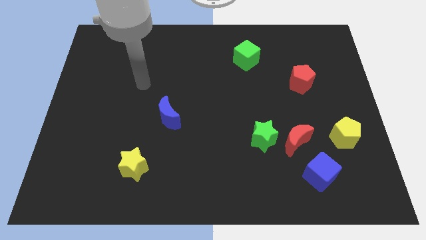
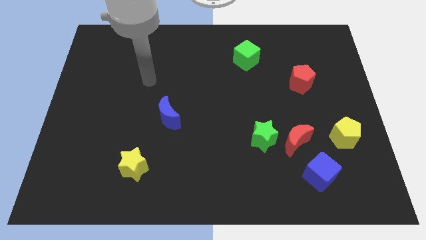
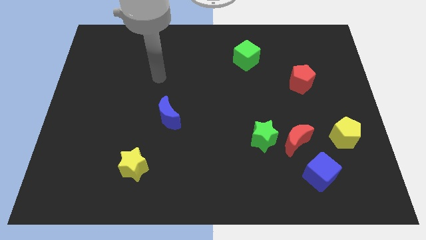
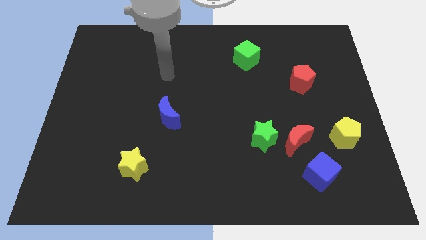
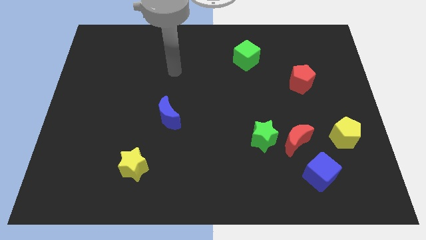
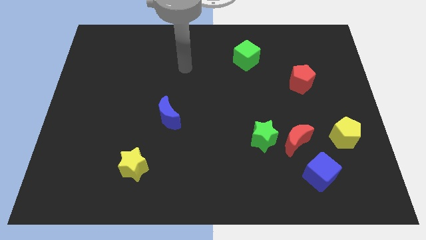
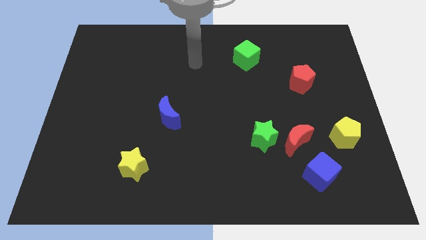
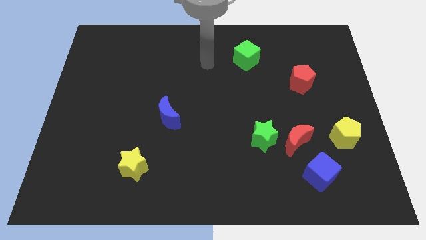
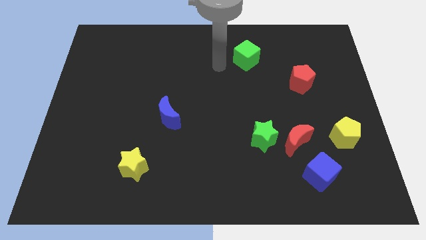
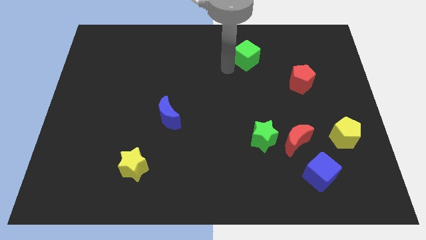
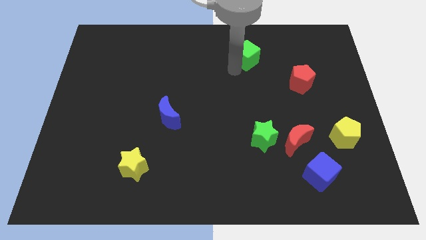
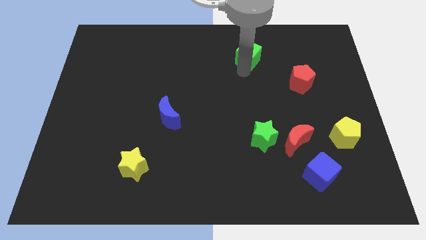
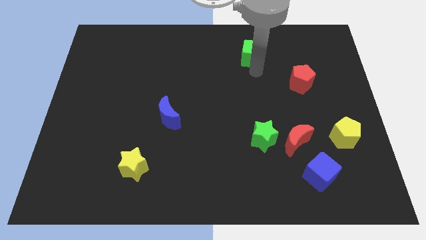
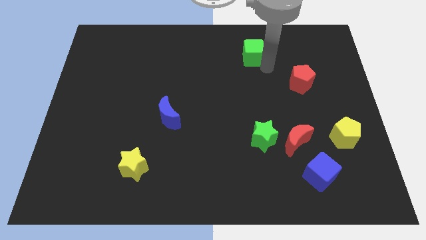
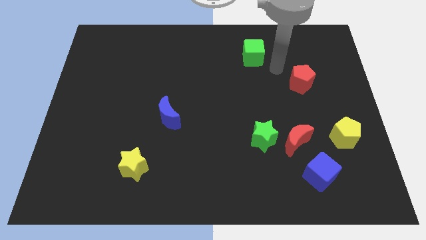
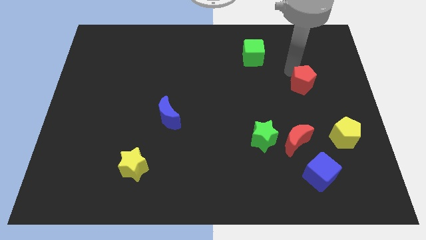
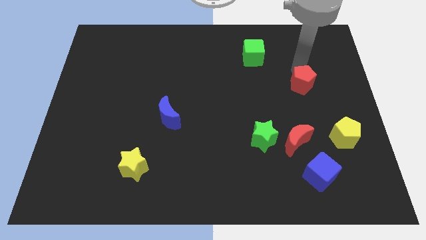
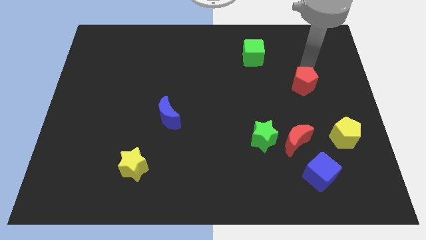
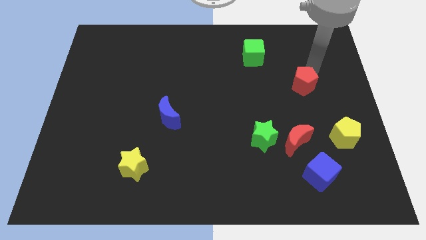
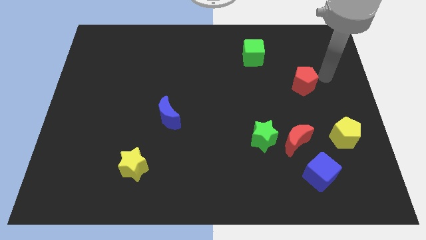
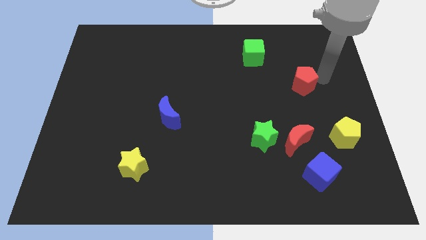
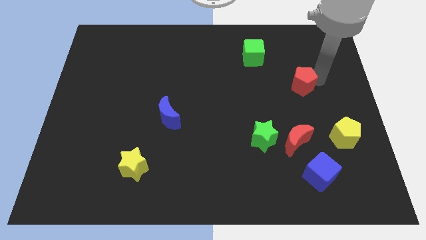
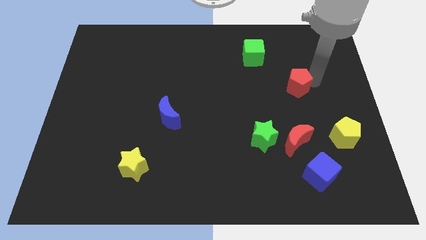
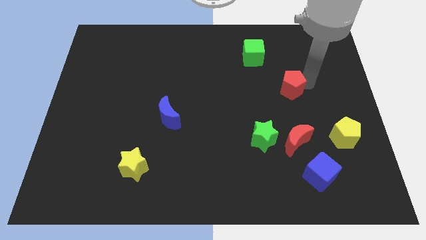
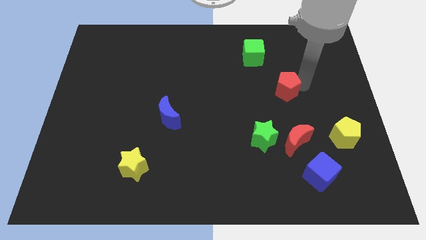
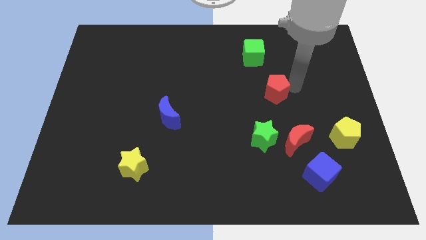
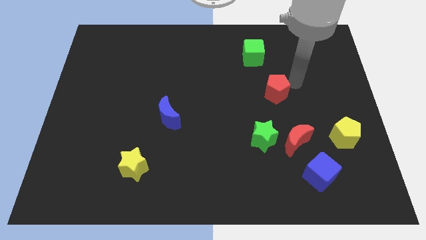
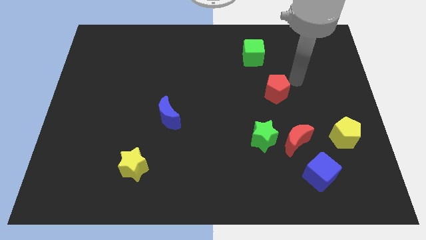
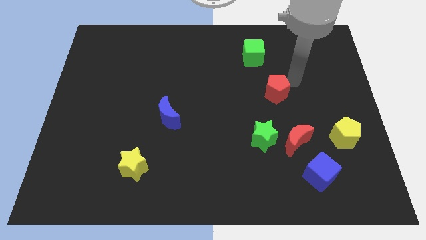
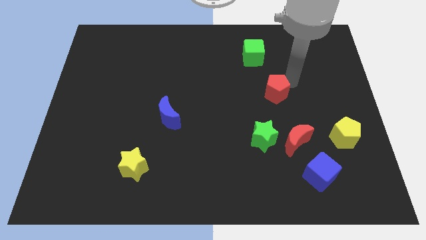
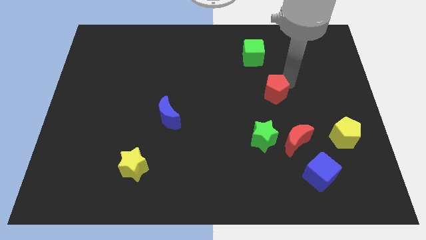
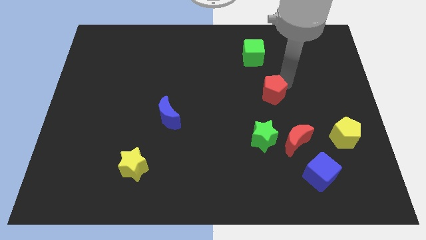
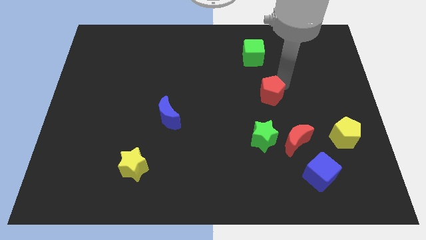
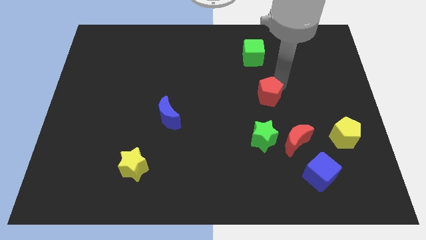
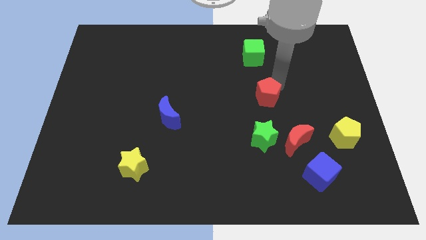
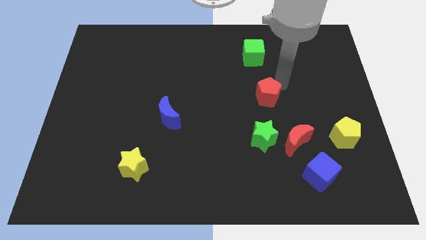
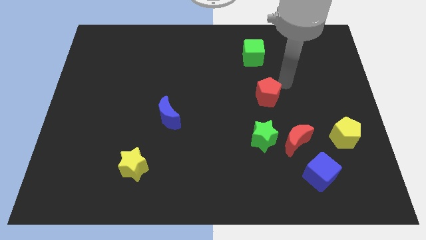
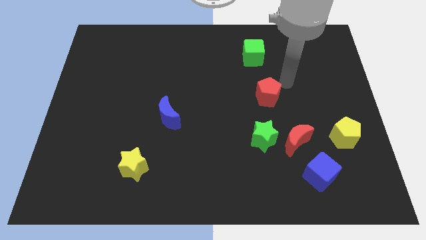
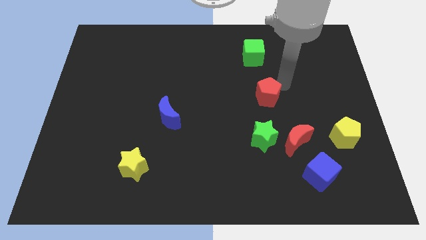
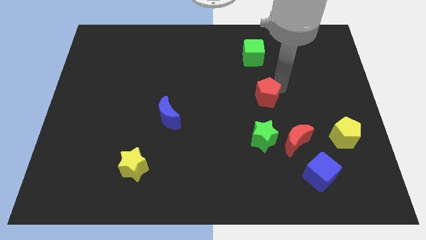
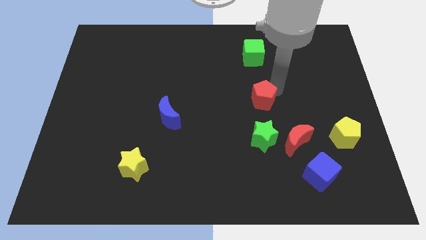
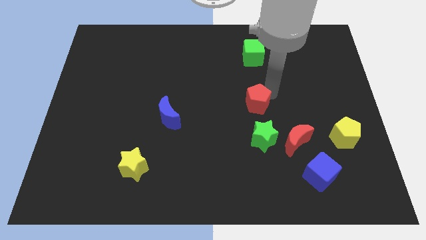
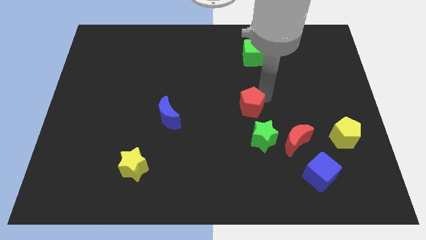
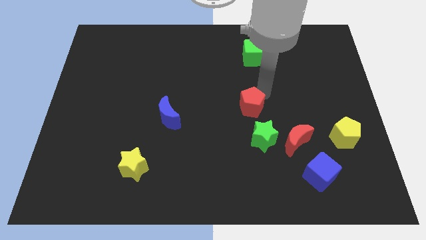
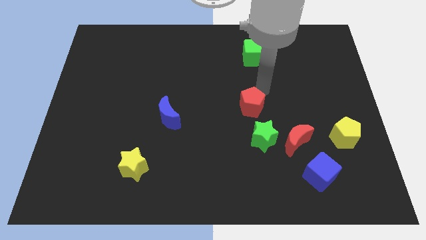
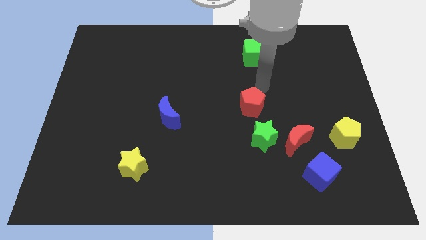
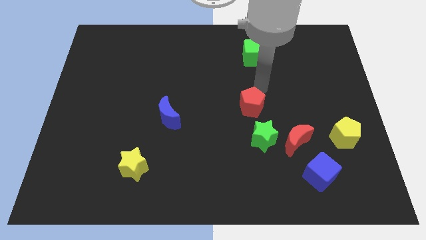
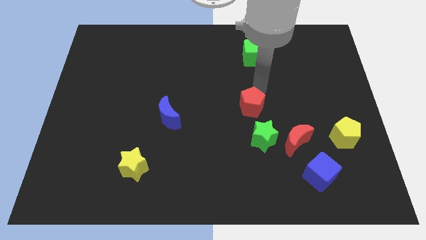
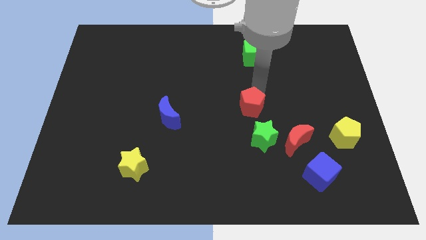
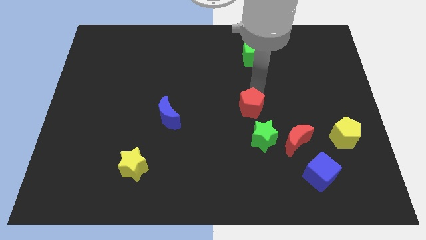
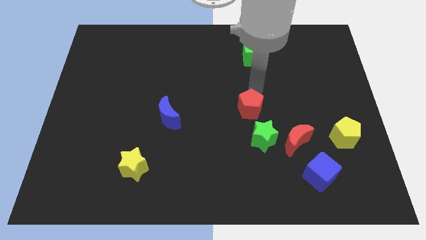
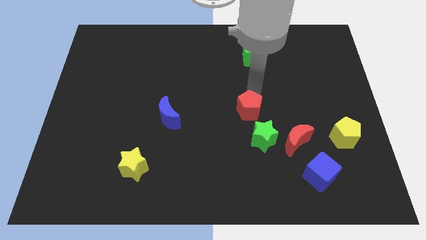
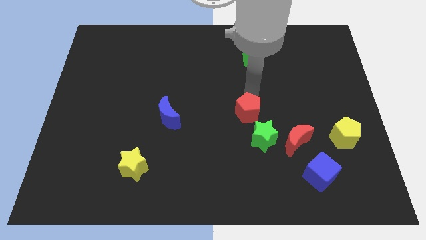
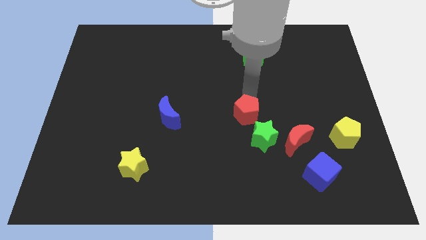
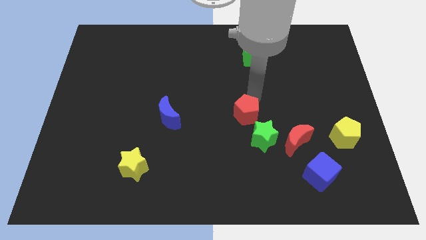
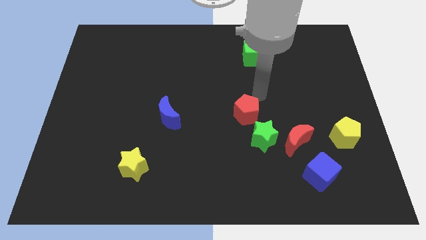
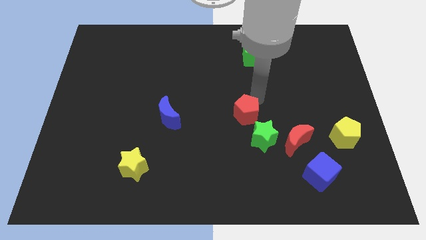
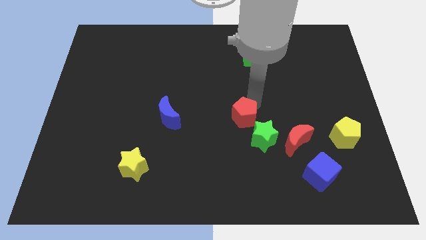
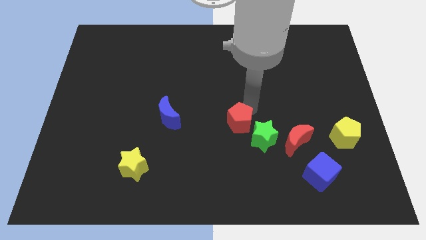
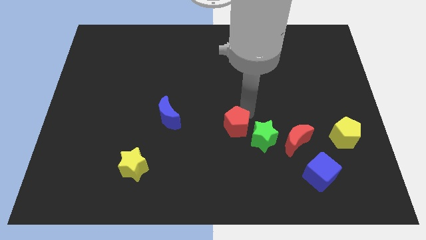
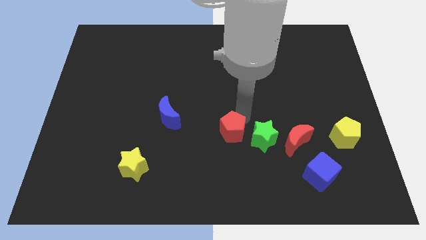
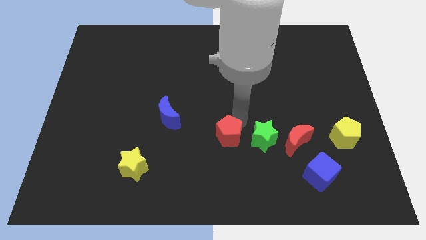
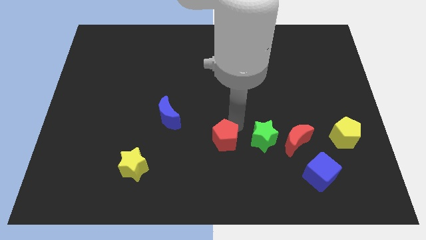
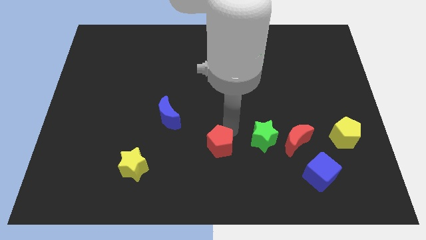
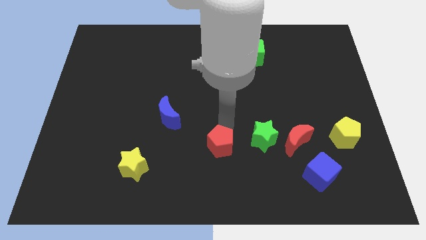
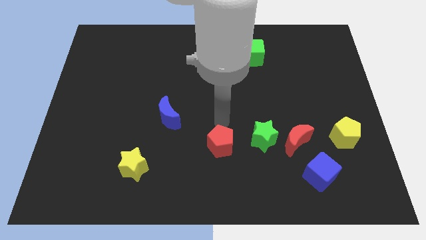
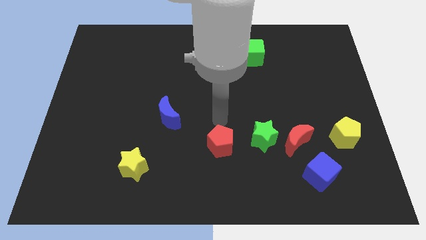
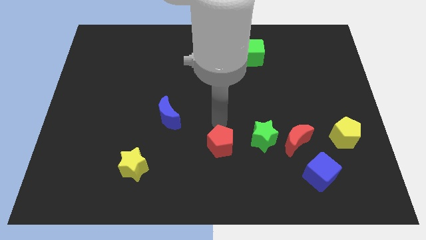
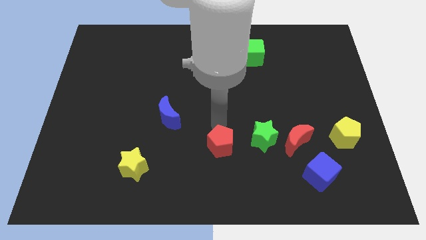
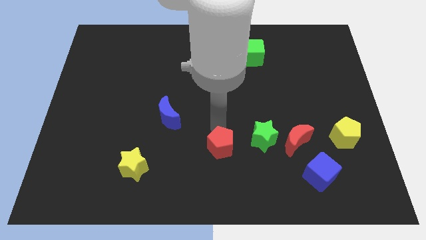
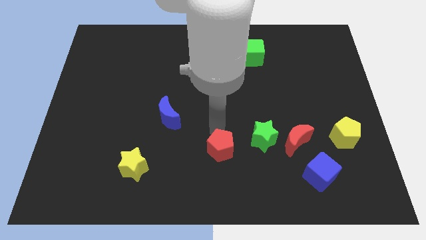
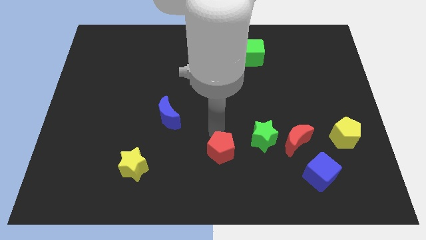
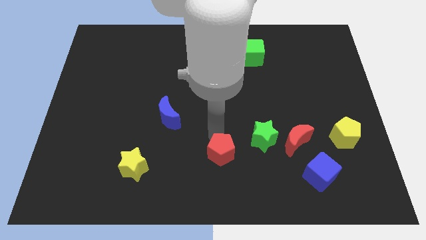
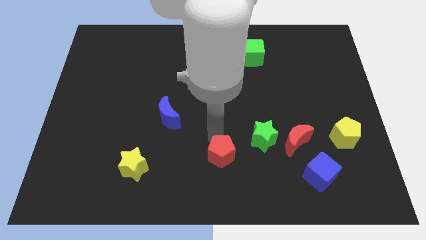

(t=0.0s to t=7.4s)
slide the red pentagon to the bottom
